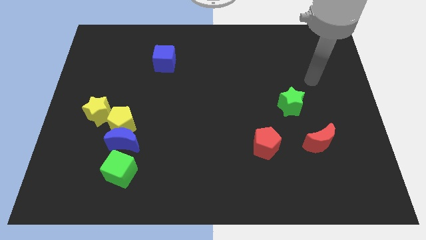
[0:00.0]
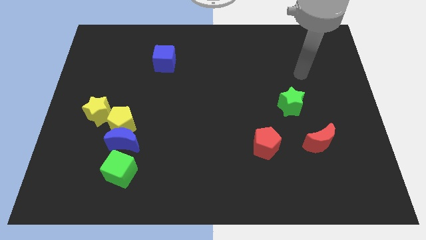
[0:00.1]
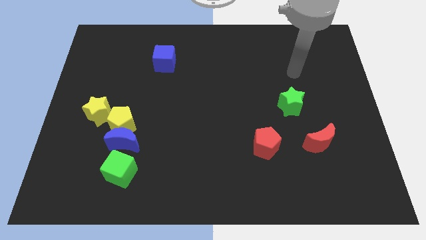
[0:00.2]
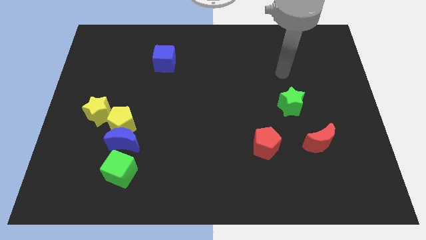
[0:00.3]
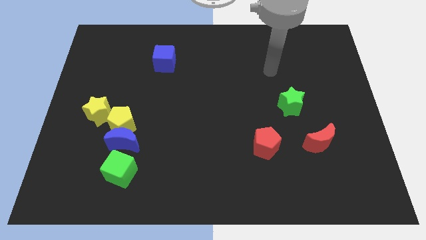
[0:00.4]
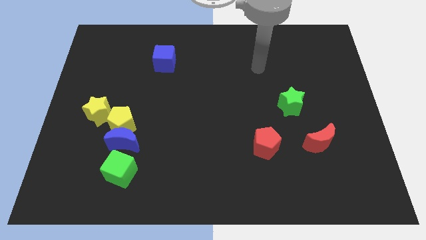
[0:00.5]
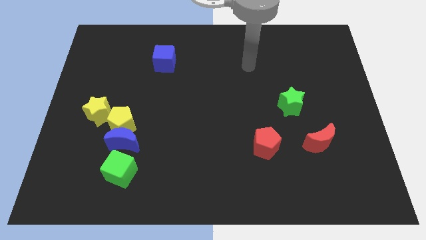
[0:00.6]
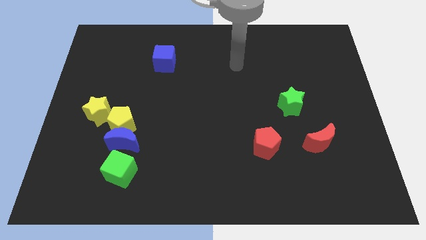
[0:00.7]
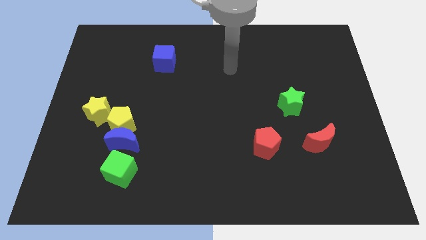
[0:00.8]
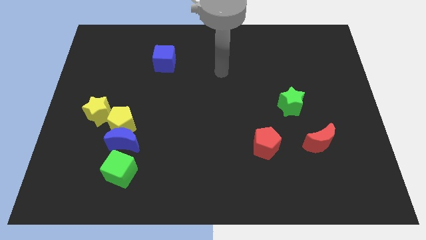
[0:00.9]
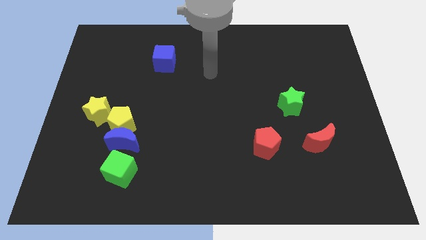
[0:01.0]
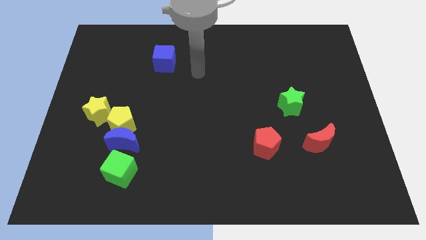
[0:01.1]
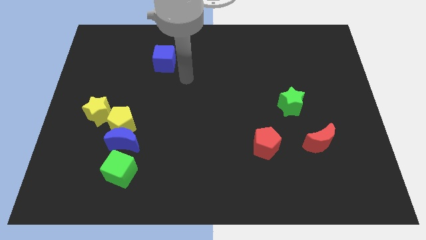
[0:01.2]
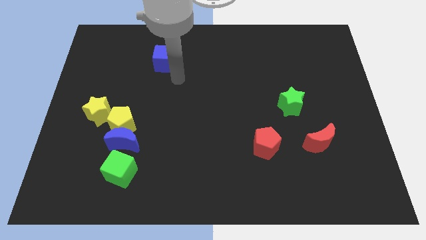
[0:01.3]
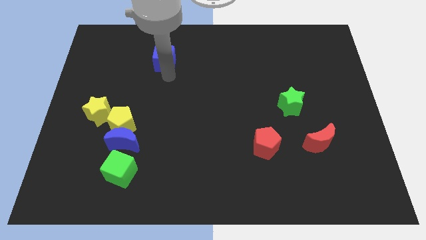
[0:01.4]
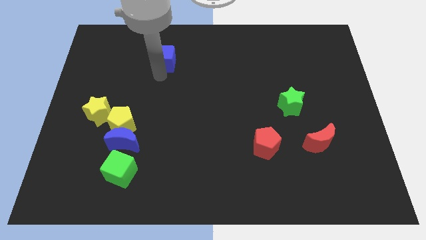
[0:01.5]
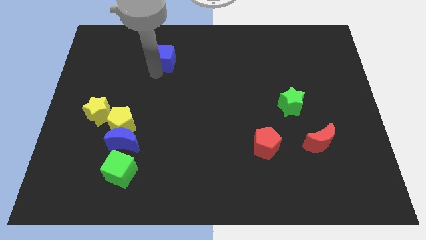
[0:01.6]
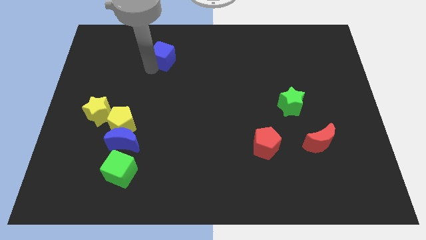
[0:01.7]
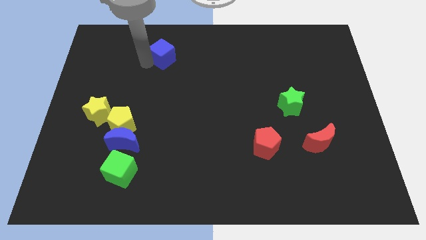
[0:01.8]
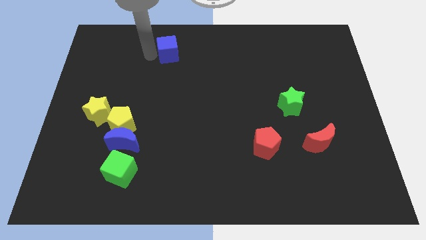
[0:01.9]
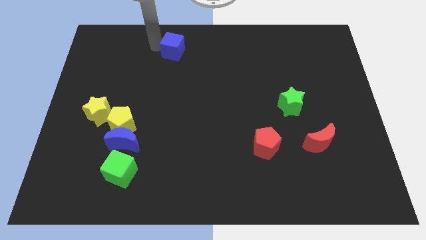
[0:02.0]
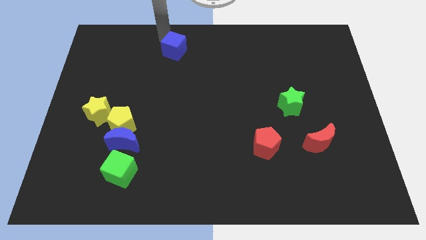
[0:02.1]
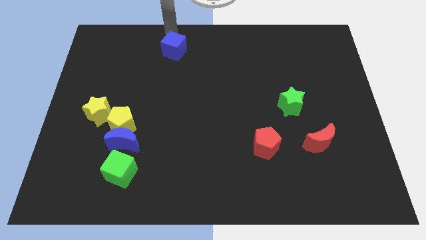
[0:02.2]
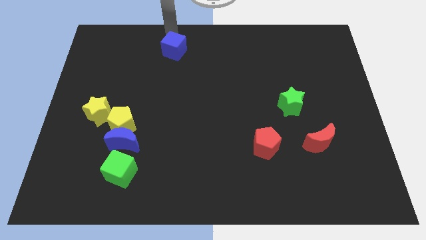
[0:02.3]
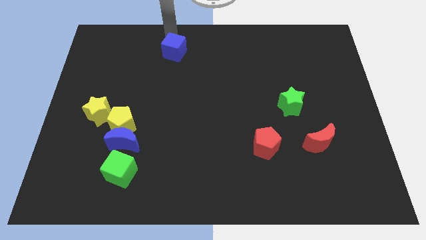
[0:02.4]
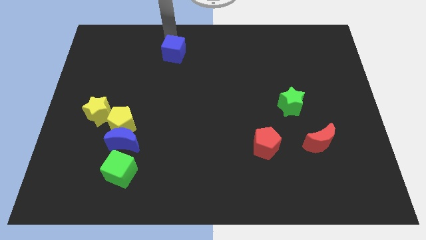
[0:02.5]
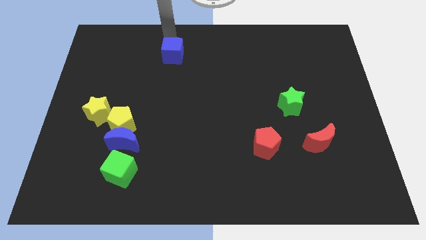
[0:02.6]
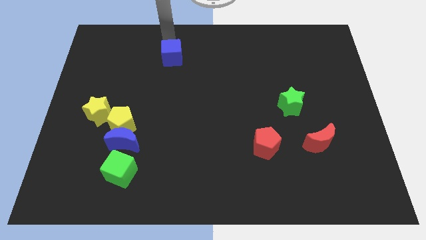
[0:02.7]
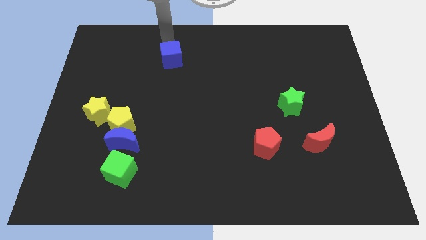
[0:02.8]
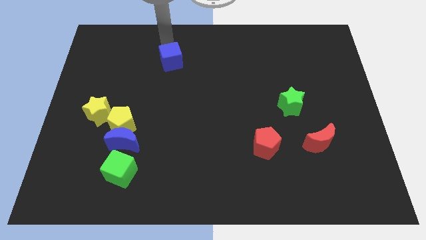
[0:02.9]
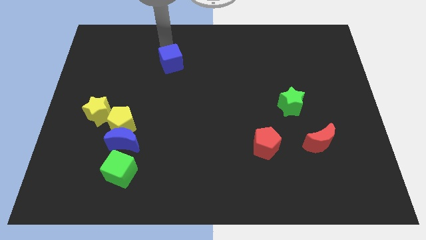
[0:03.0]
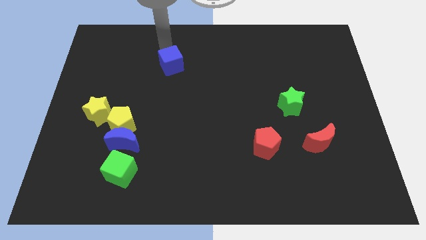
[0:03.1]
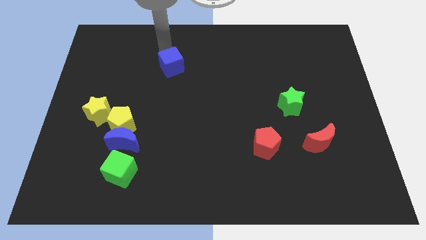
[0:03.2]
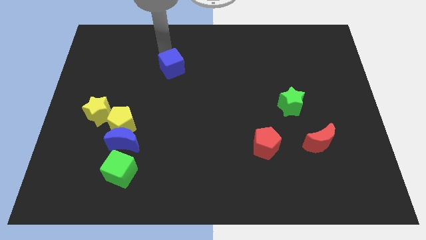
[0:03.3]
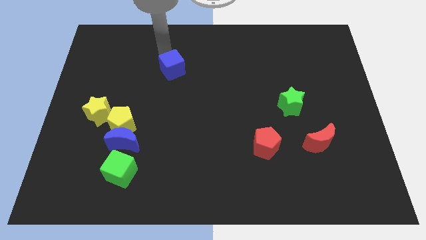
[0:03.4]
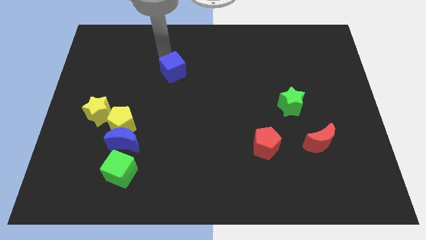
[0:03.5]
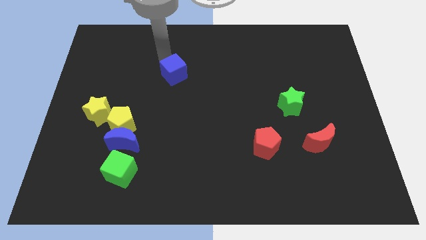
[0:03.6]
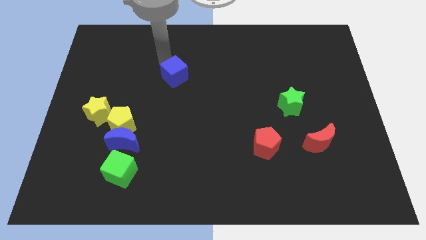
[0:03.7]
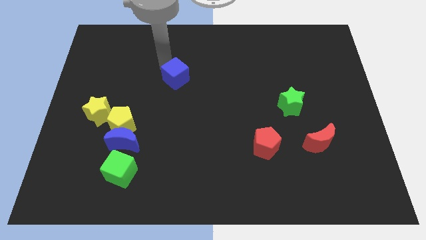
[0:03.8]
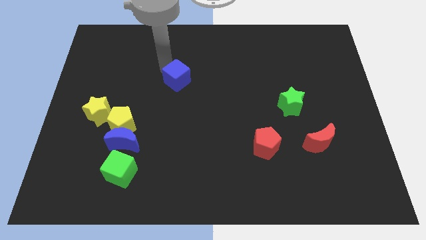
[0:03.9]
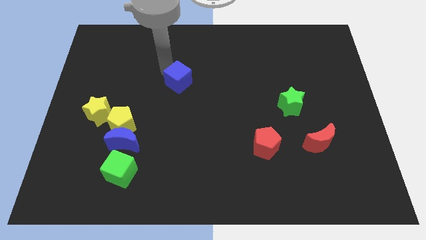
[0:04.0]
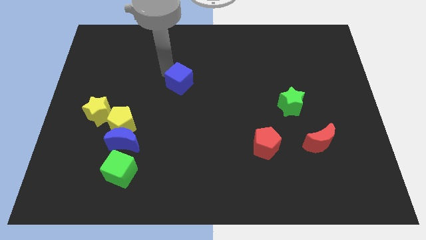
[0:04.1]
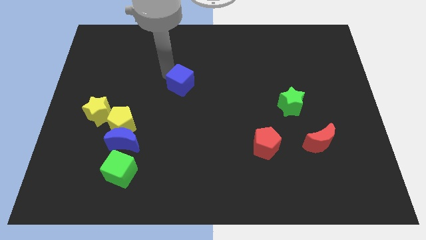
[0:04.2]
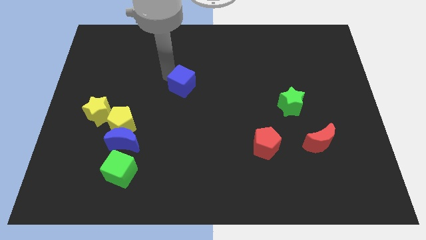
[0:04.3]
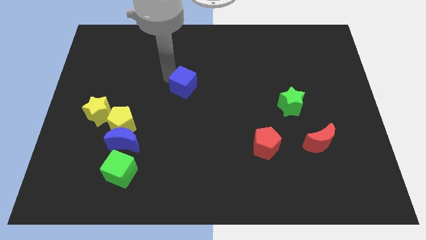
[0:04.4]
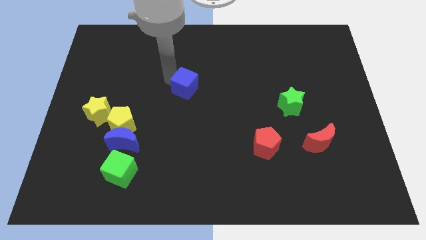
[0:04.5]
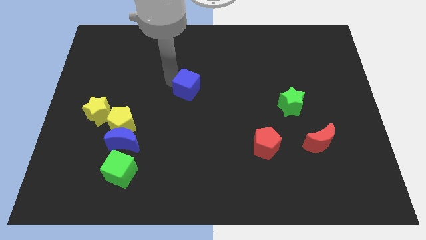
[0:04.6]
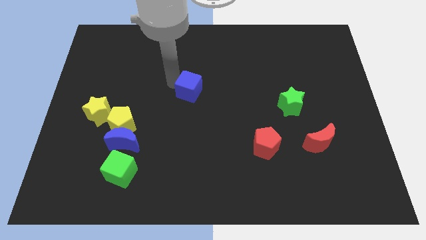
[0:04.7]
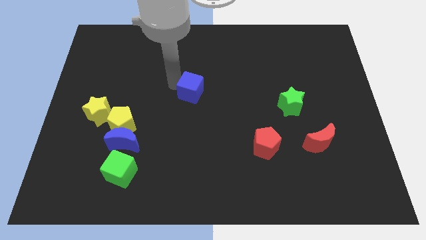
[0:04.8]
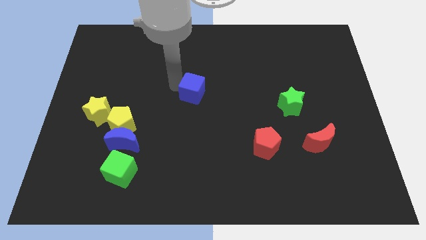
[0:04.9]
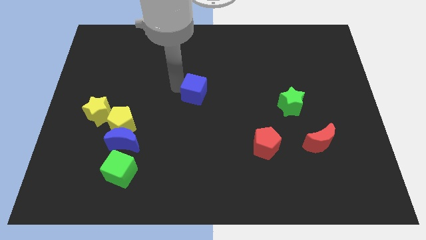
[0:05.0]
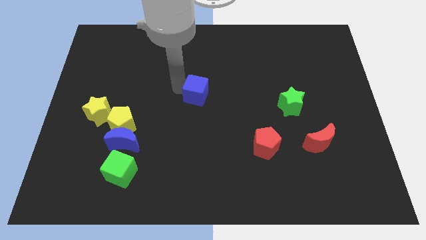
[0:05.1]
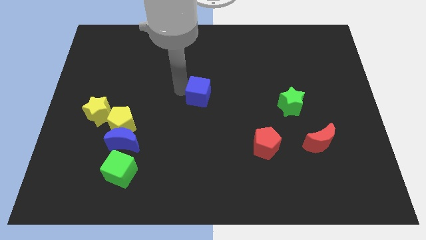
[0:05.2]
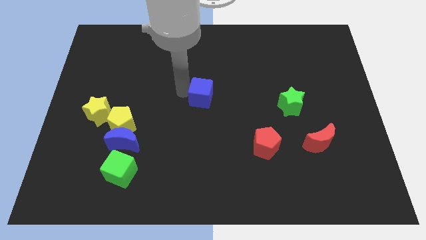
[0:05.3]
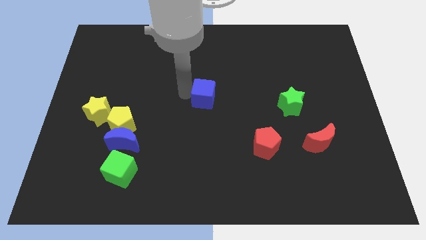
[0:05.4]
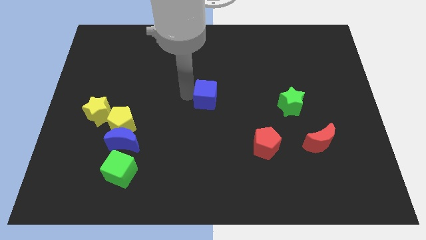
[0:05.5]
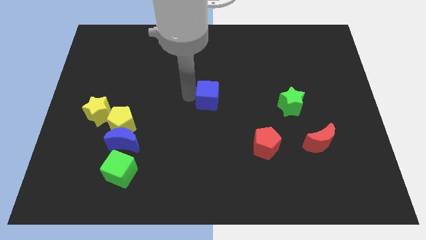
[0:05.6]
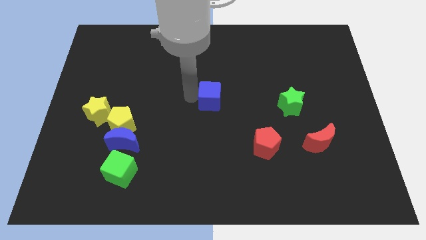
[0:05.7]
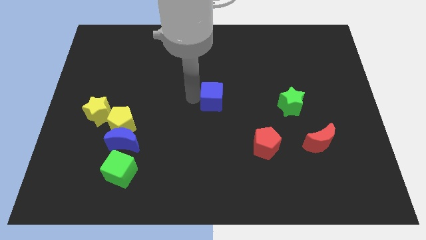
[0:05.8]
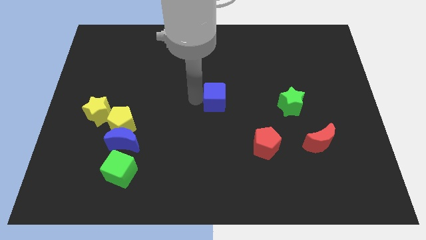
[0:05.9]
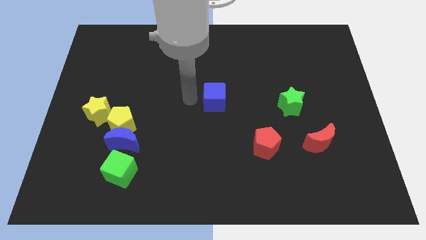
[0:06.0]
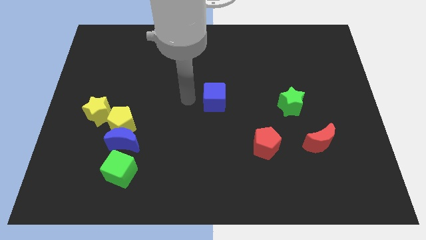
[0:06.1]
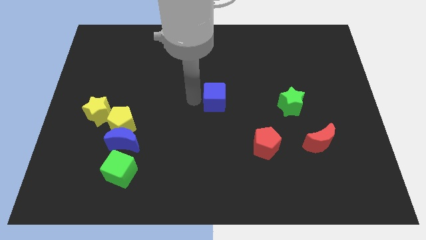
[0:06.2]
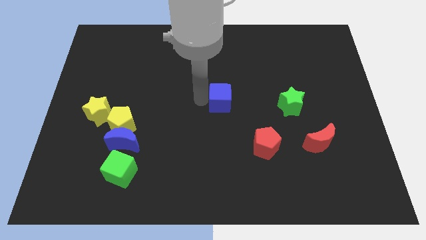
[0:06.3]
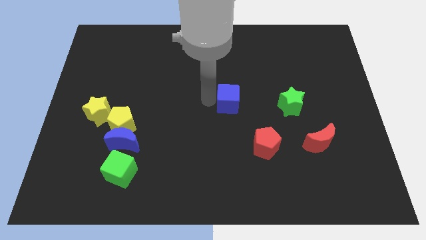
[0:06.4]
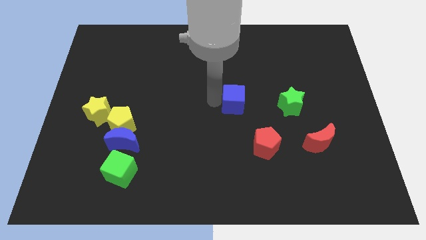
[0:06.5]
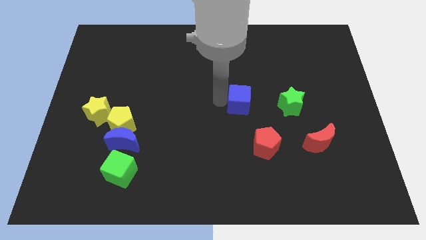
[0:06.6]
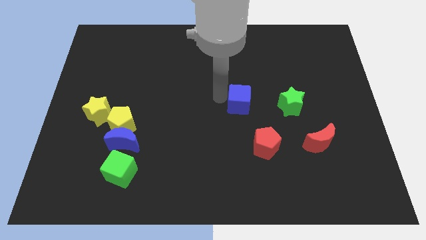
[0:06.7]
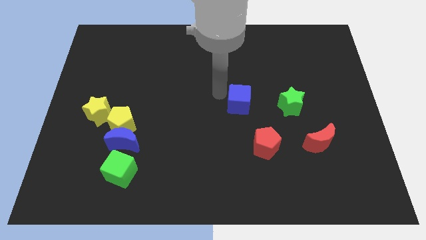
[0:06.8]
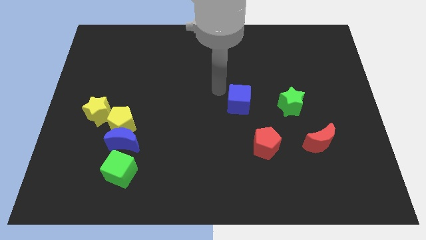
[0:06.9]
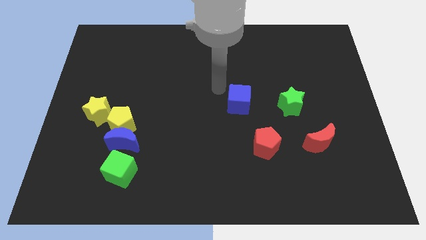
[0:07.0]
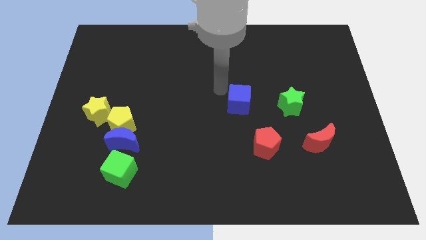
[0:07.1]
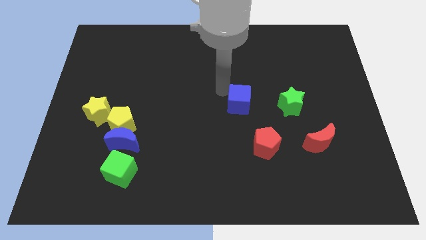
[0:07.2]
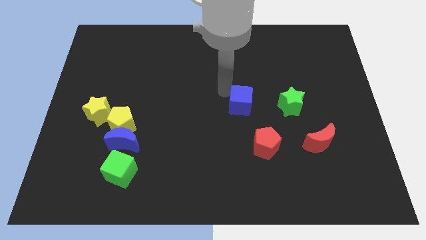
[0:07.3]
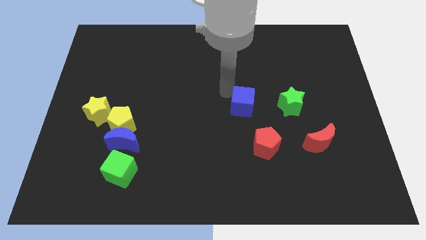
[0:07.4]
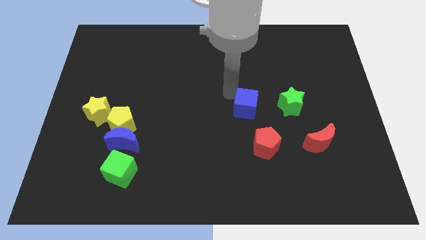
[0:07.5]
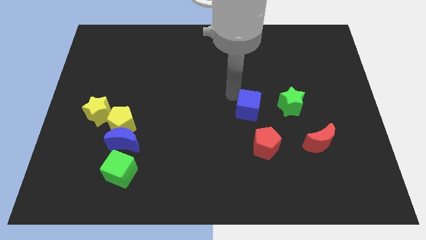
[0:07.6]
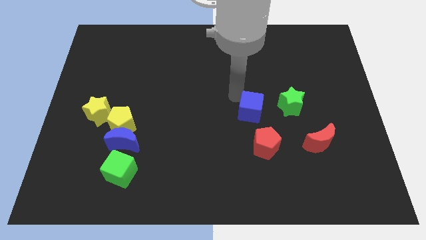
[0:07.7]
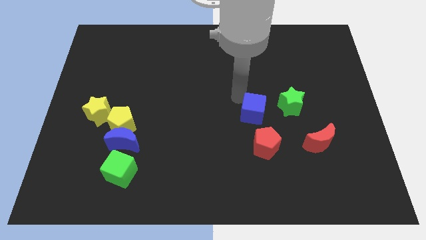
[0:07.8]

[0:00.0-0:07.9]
move the blue cube to the bottom left of the green star

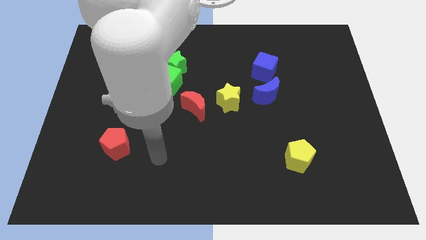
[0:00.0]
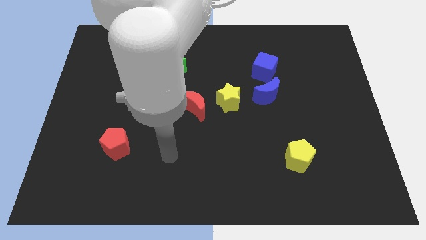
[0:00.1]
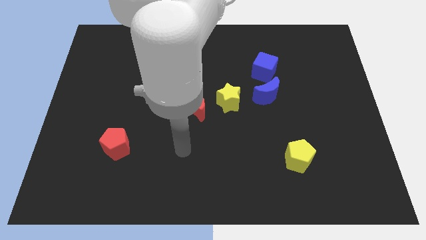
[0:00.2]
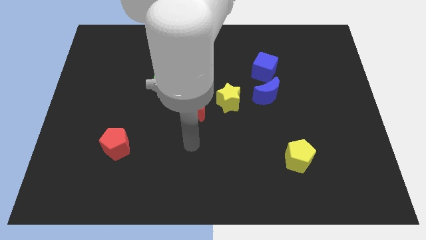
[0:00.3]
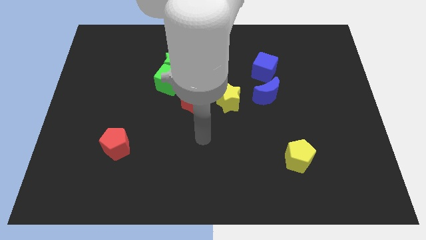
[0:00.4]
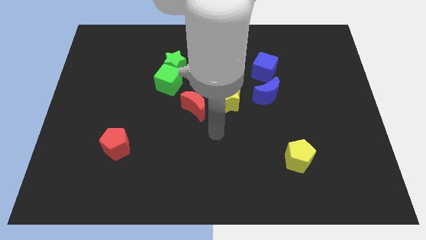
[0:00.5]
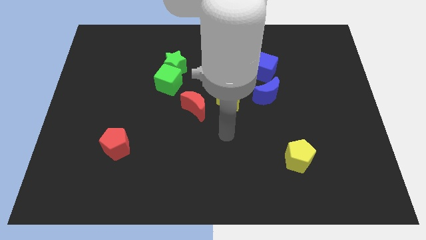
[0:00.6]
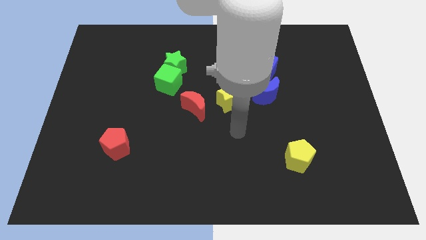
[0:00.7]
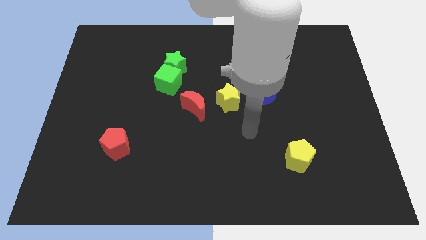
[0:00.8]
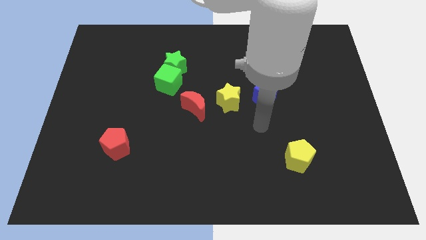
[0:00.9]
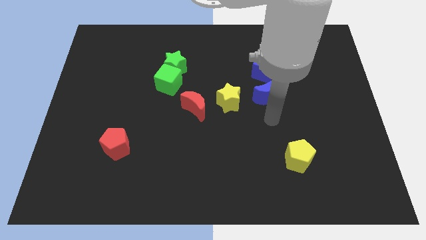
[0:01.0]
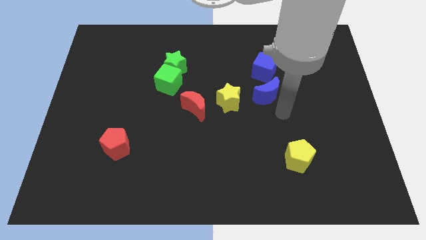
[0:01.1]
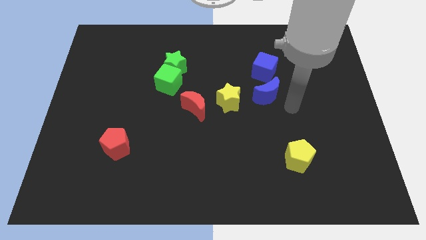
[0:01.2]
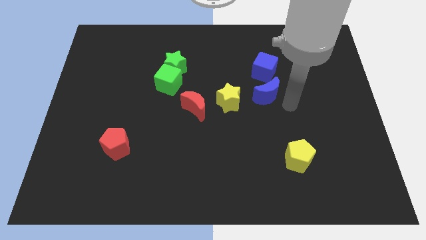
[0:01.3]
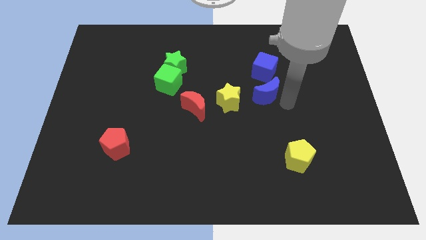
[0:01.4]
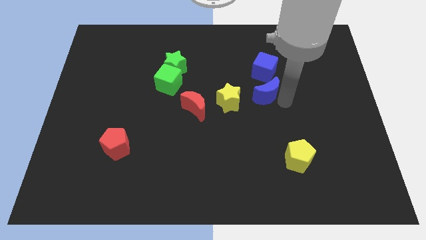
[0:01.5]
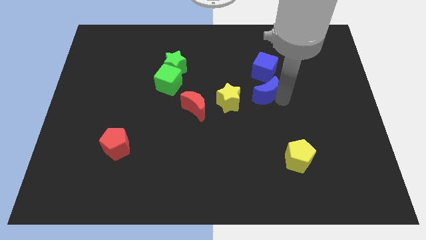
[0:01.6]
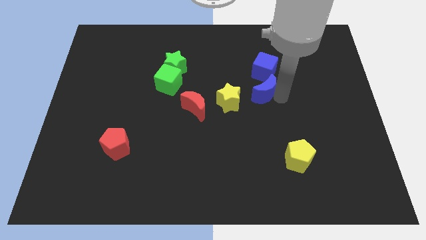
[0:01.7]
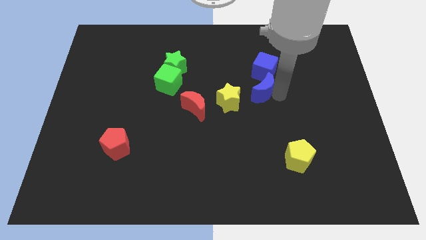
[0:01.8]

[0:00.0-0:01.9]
push the blue moon to the bottom left of the blue cube
